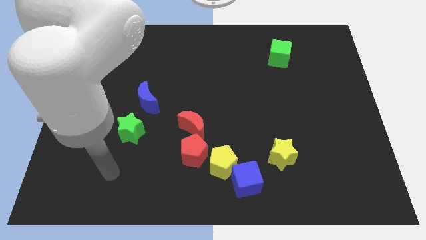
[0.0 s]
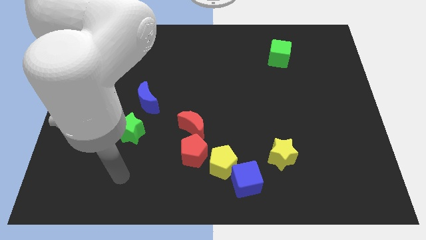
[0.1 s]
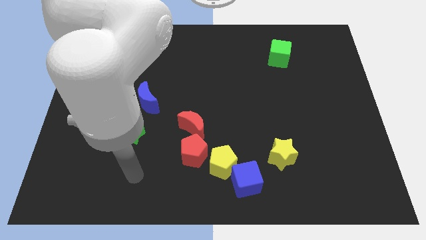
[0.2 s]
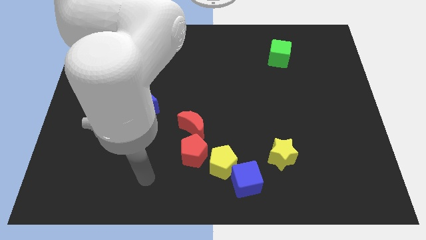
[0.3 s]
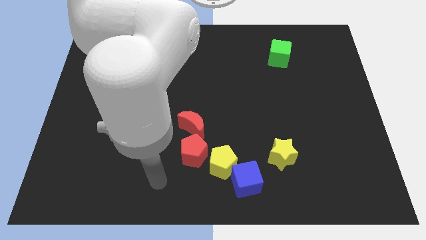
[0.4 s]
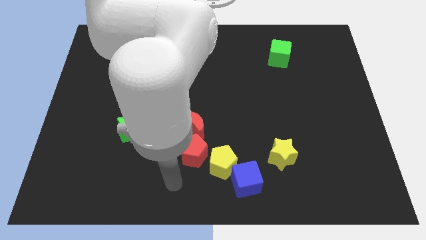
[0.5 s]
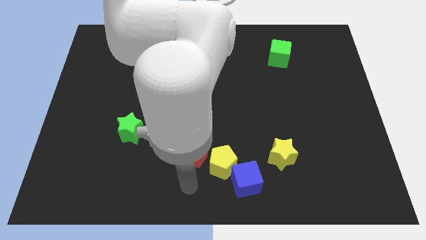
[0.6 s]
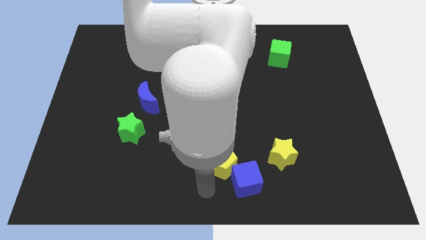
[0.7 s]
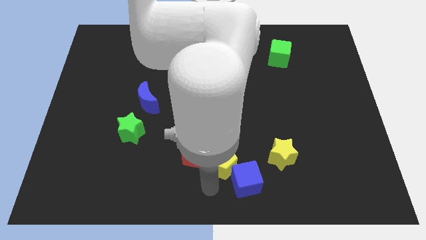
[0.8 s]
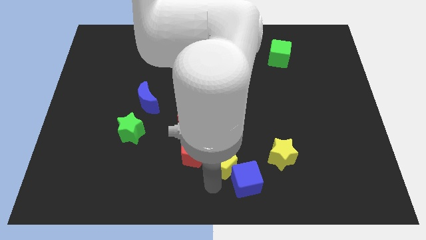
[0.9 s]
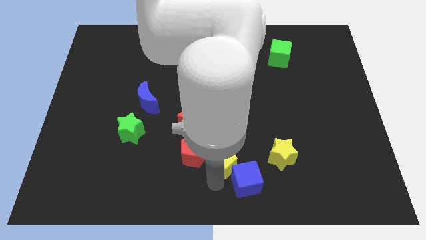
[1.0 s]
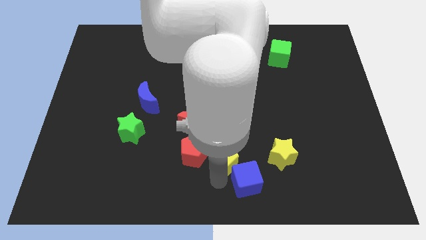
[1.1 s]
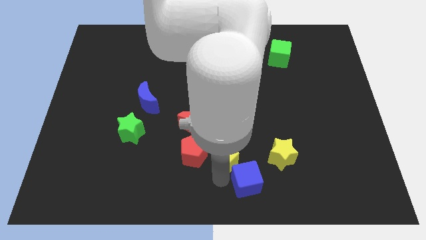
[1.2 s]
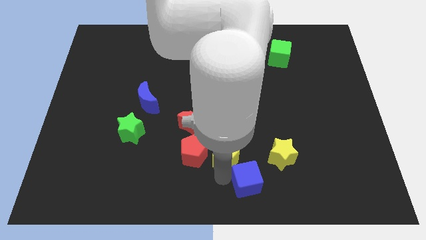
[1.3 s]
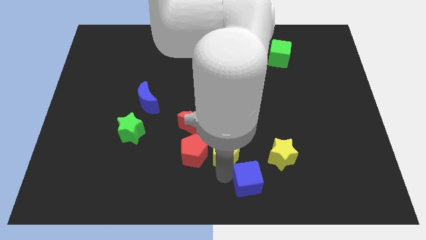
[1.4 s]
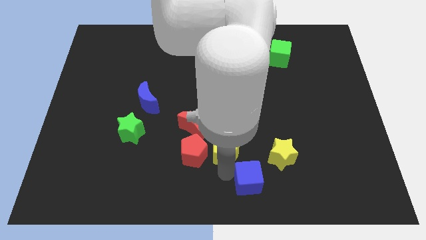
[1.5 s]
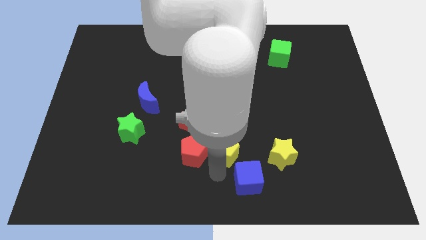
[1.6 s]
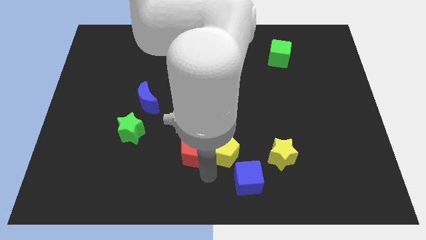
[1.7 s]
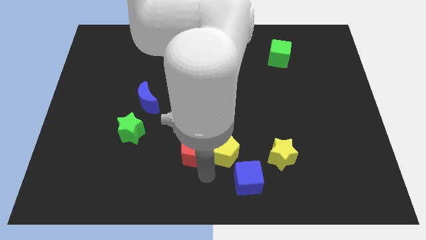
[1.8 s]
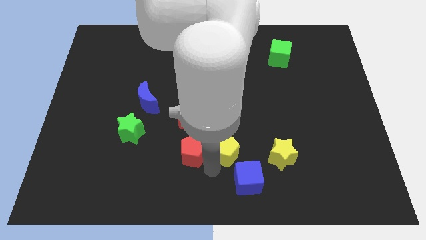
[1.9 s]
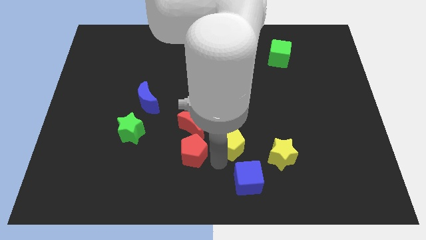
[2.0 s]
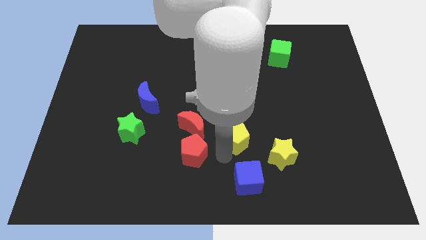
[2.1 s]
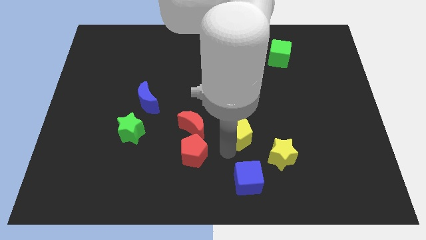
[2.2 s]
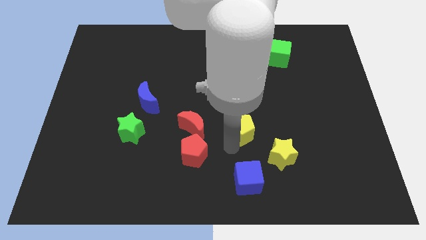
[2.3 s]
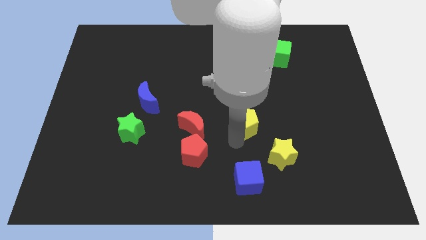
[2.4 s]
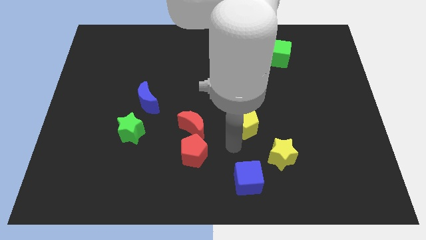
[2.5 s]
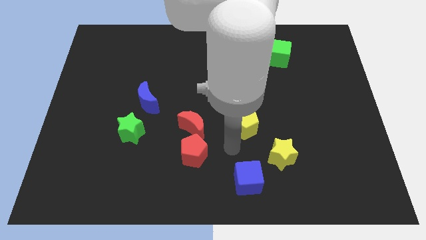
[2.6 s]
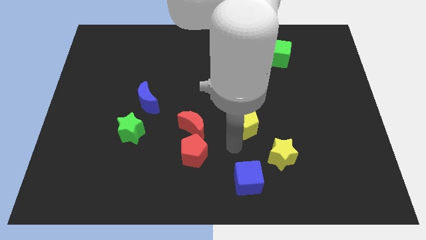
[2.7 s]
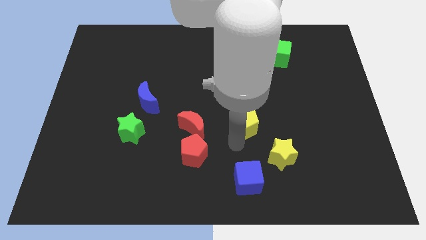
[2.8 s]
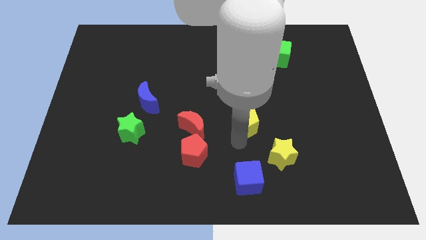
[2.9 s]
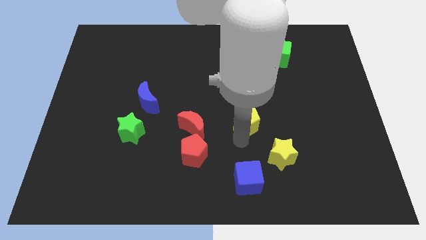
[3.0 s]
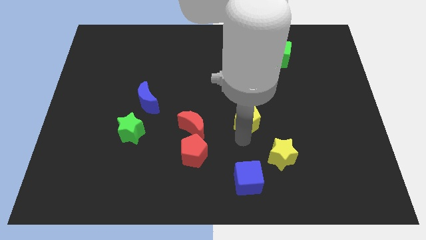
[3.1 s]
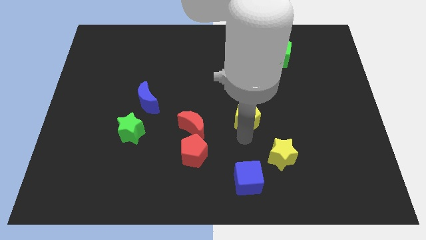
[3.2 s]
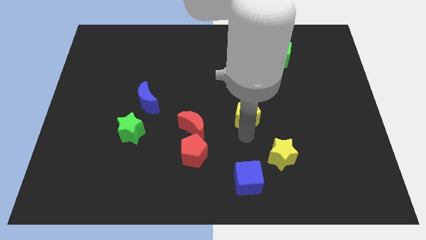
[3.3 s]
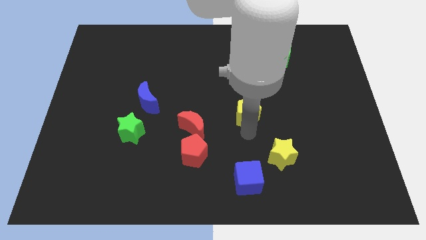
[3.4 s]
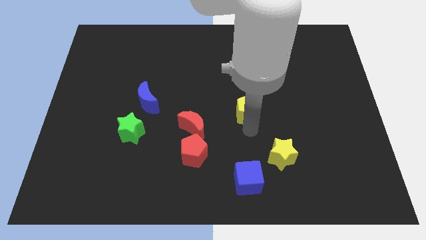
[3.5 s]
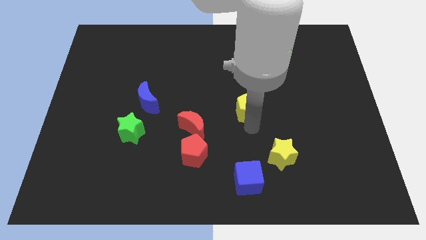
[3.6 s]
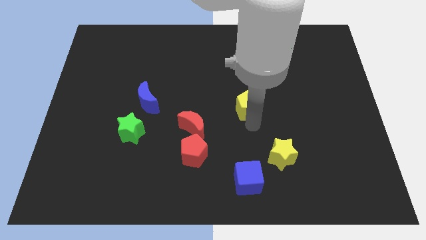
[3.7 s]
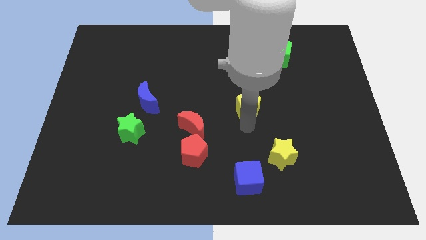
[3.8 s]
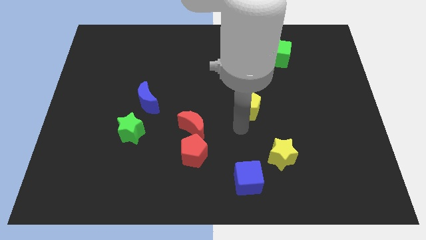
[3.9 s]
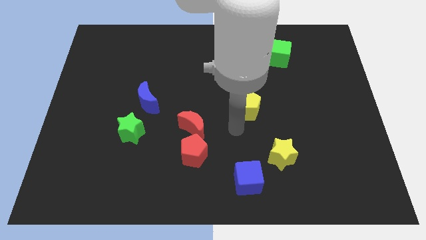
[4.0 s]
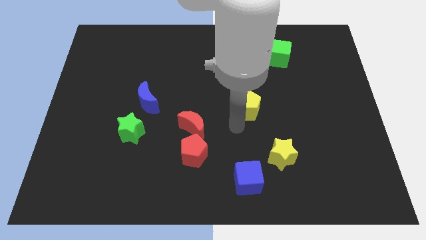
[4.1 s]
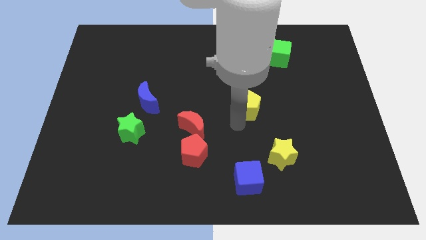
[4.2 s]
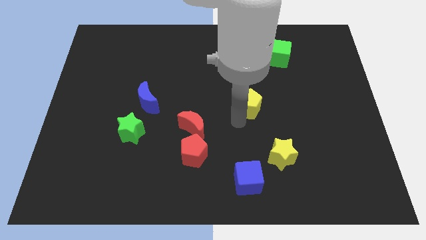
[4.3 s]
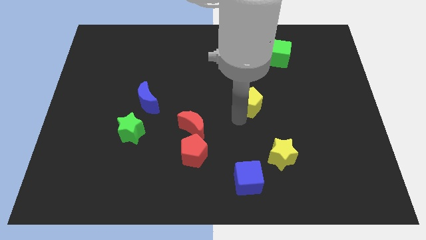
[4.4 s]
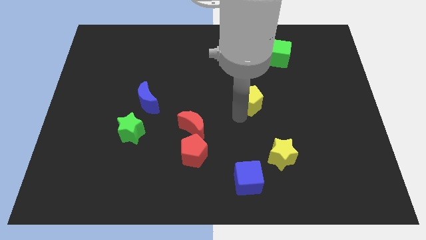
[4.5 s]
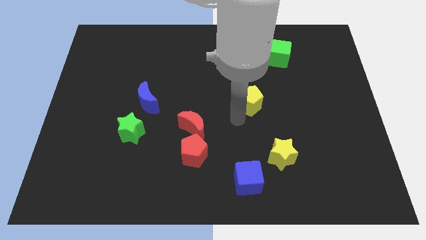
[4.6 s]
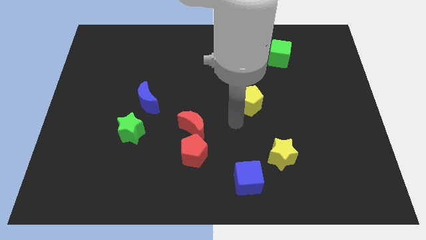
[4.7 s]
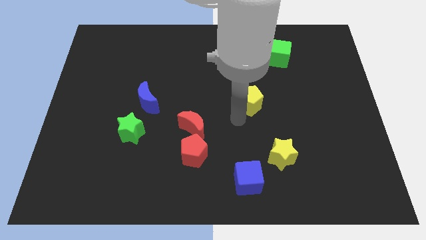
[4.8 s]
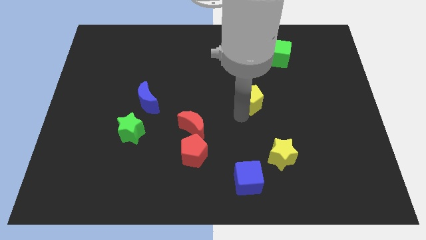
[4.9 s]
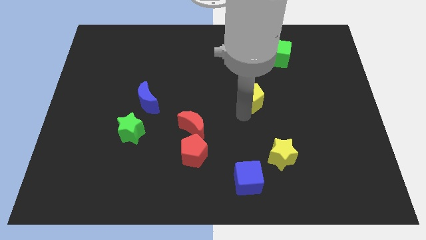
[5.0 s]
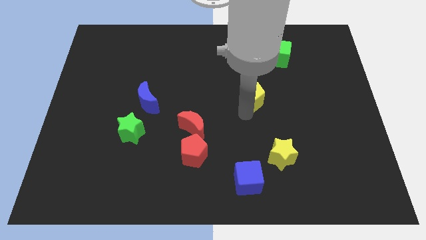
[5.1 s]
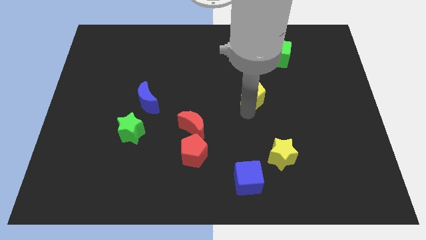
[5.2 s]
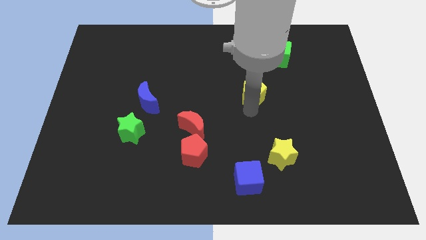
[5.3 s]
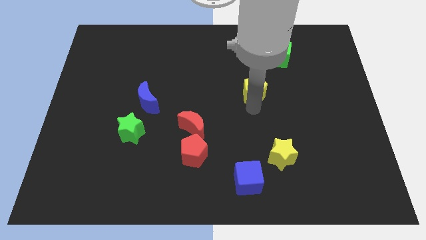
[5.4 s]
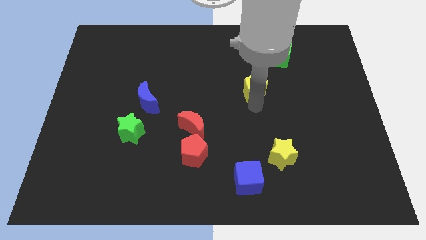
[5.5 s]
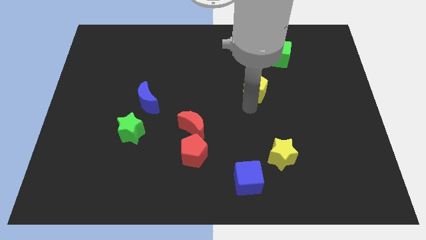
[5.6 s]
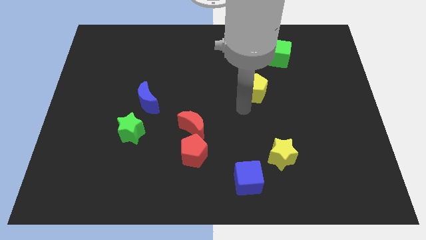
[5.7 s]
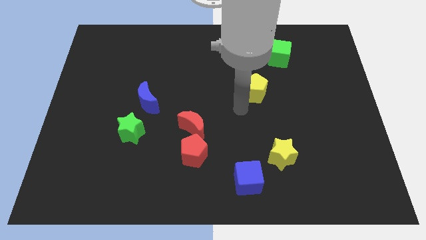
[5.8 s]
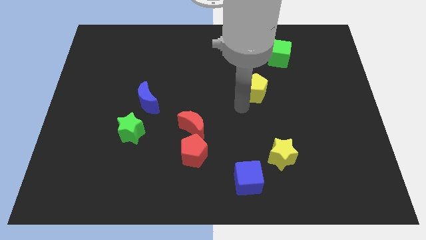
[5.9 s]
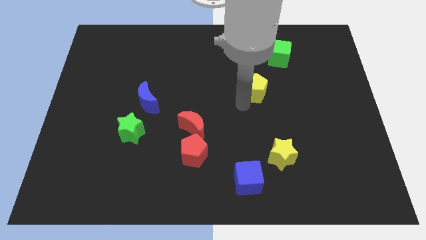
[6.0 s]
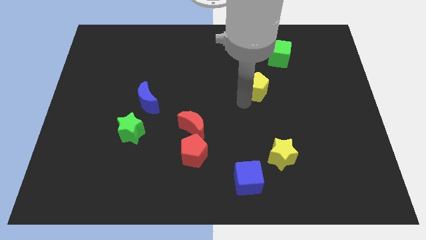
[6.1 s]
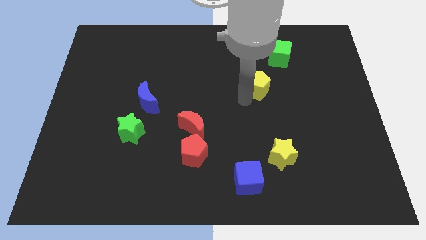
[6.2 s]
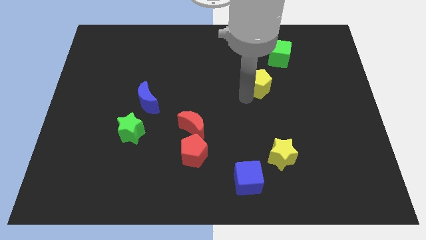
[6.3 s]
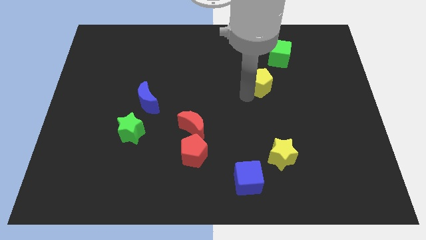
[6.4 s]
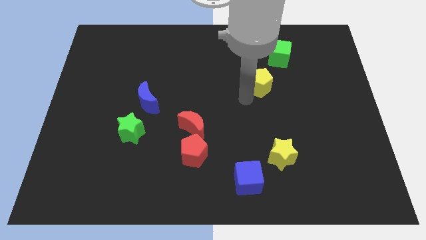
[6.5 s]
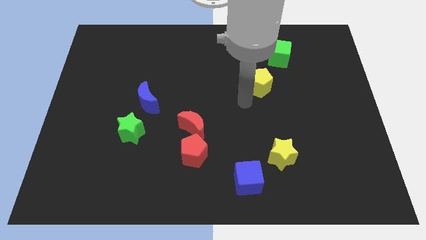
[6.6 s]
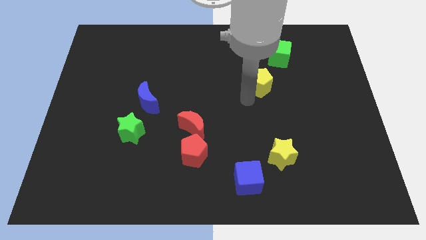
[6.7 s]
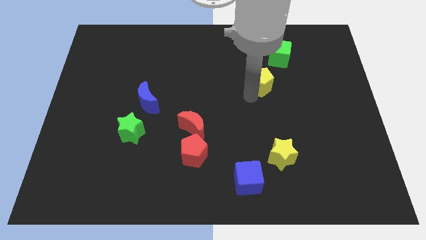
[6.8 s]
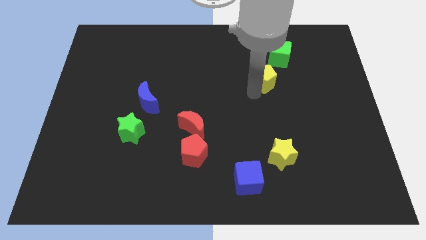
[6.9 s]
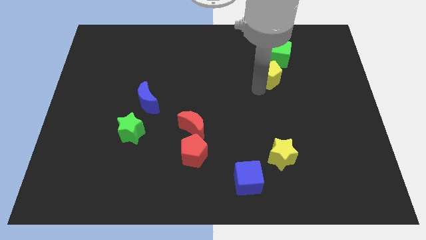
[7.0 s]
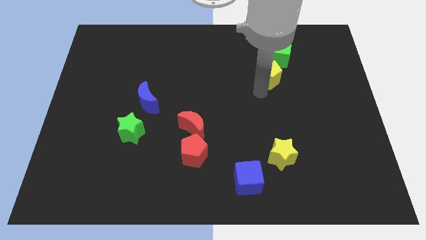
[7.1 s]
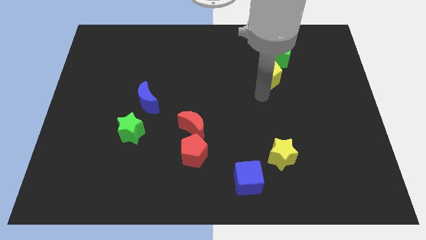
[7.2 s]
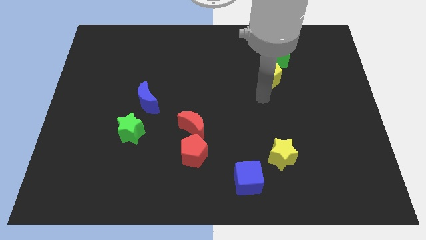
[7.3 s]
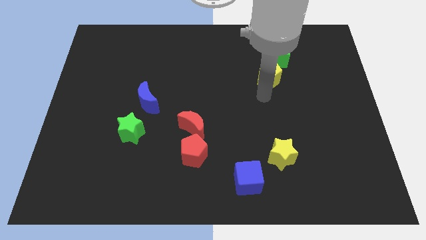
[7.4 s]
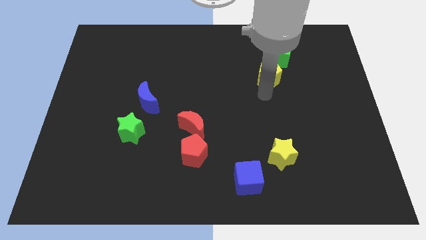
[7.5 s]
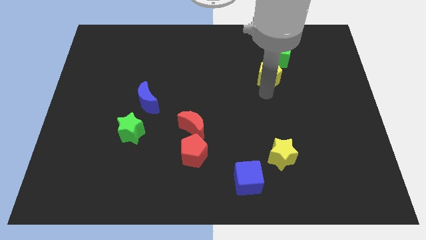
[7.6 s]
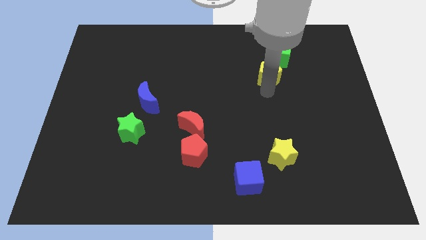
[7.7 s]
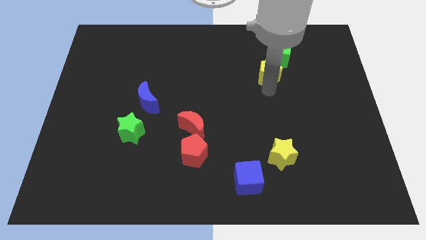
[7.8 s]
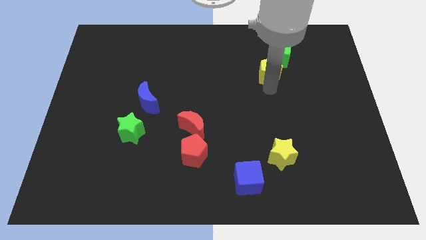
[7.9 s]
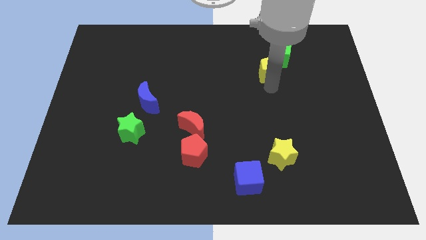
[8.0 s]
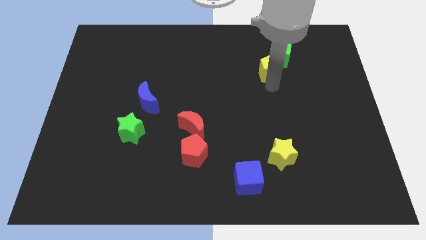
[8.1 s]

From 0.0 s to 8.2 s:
push the yellow pentagon next to the green cube
